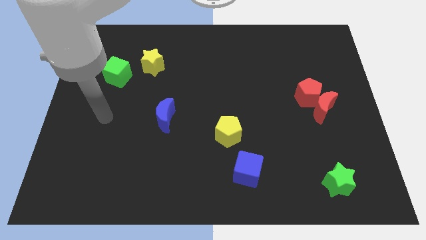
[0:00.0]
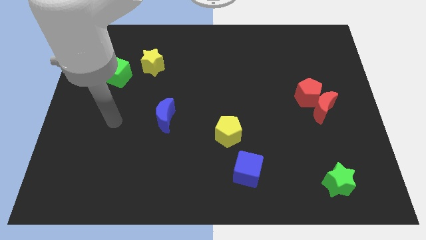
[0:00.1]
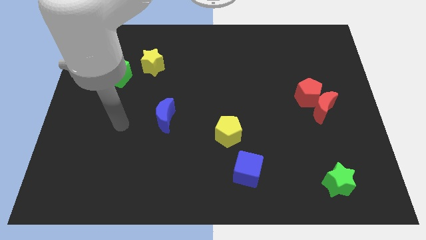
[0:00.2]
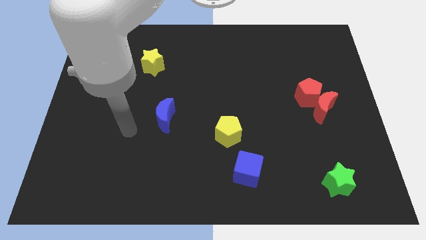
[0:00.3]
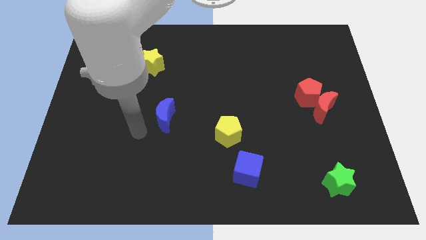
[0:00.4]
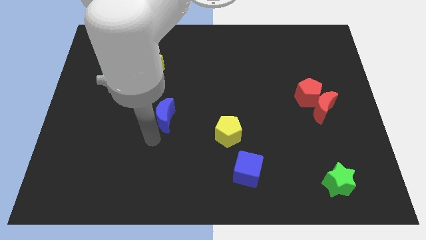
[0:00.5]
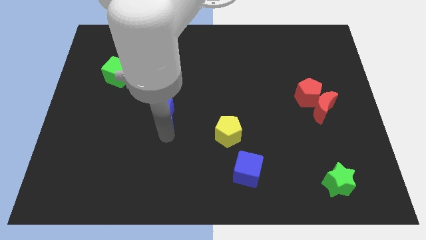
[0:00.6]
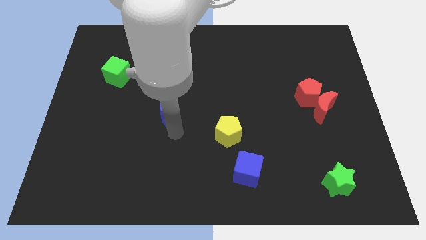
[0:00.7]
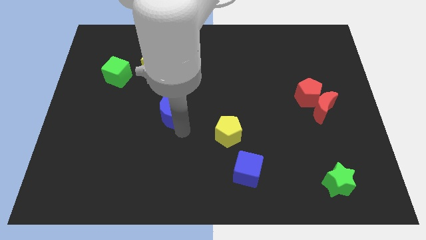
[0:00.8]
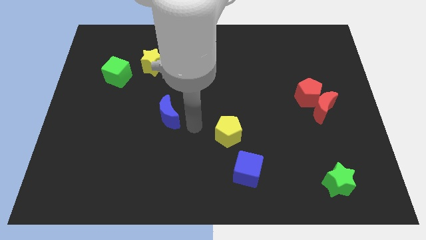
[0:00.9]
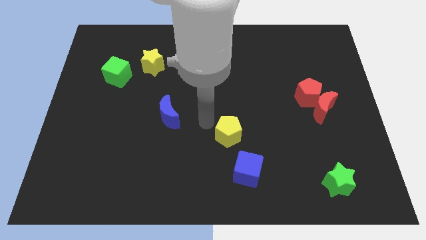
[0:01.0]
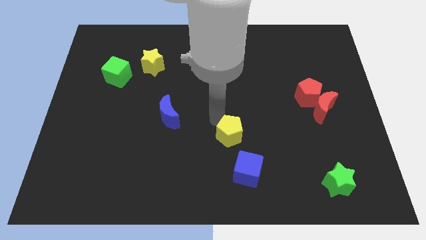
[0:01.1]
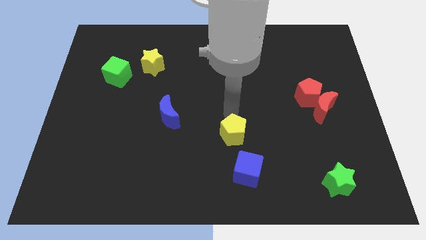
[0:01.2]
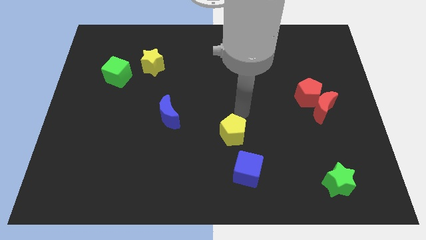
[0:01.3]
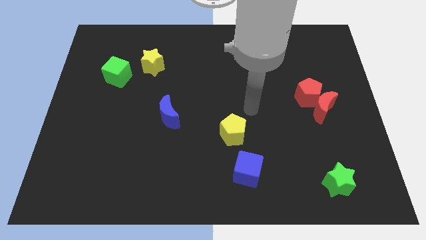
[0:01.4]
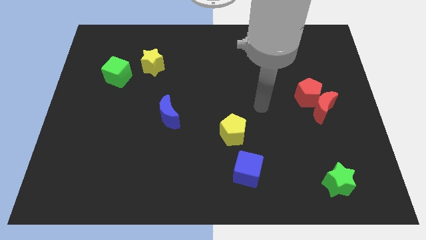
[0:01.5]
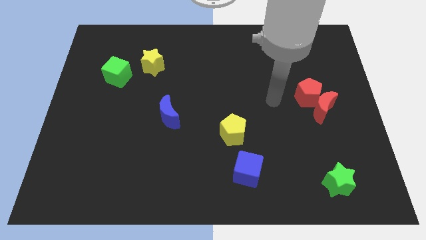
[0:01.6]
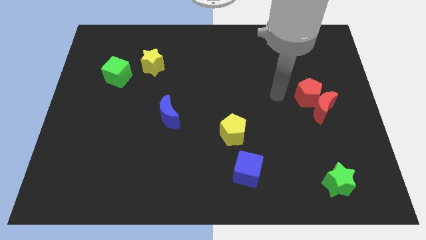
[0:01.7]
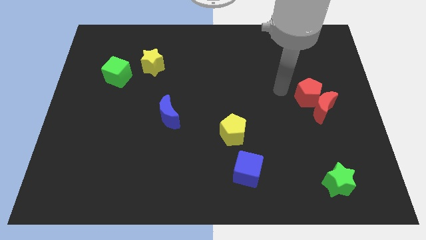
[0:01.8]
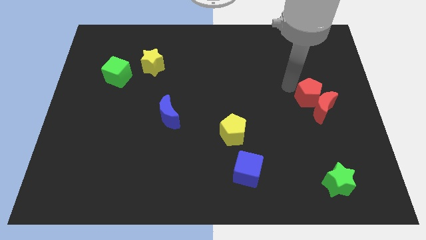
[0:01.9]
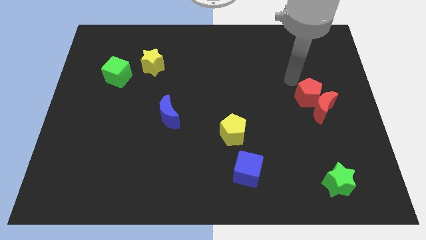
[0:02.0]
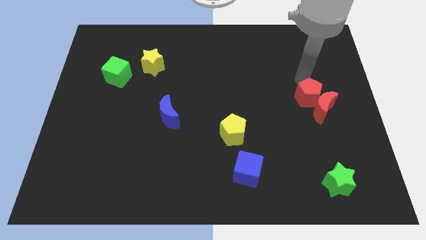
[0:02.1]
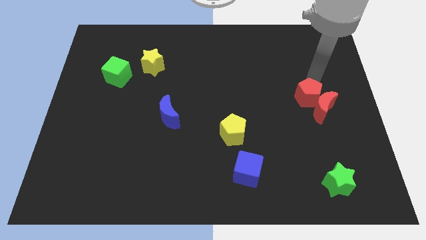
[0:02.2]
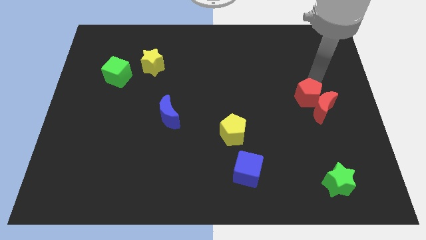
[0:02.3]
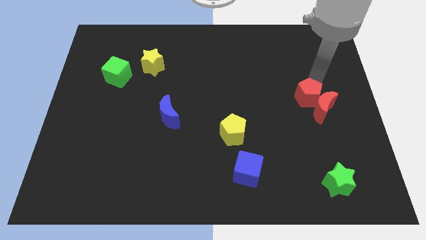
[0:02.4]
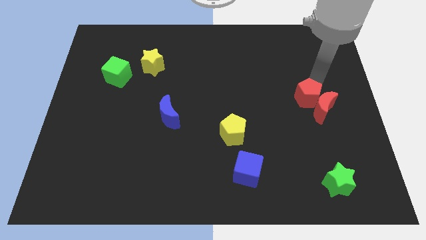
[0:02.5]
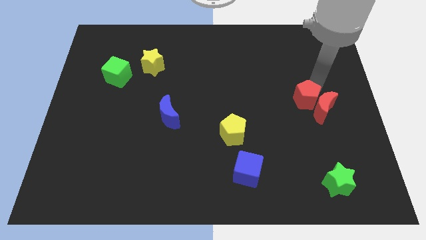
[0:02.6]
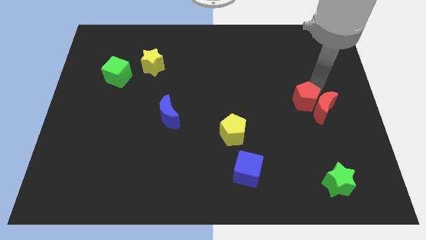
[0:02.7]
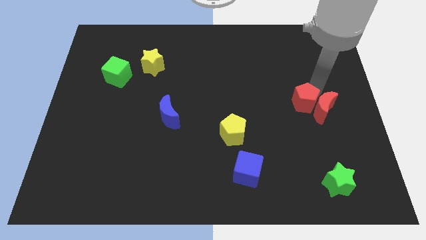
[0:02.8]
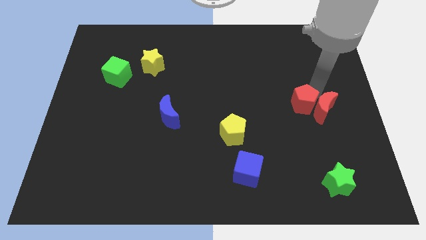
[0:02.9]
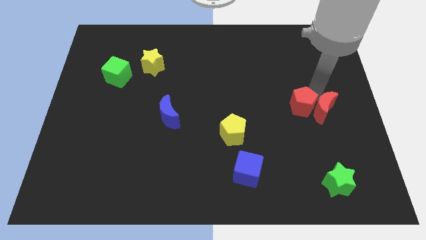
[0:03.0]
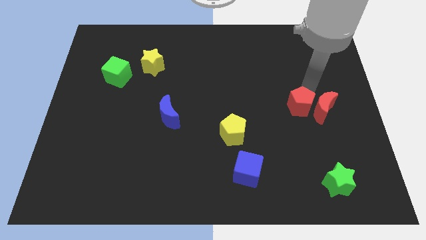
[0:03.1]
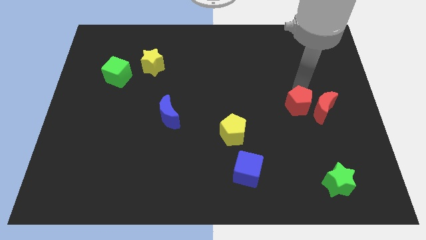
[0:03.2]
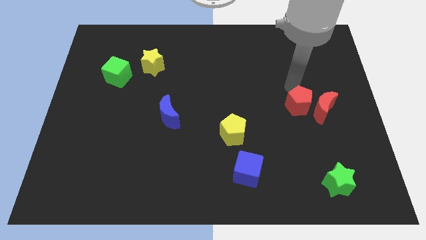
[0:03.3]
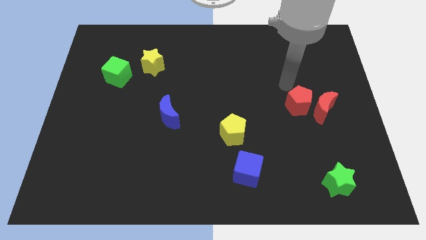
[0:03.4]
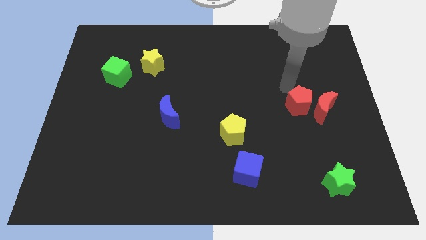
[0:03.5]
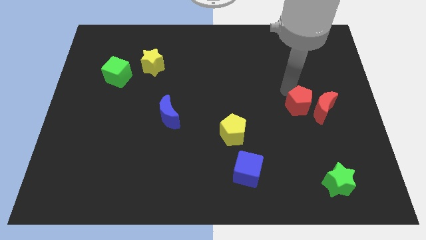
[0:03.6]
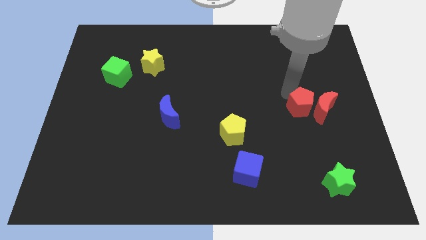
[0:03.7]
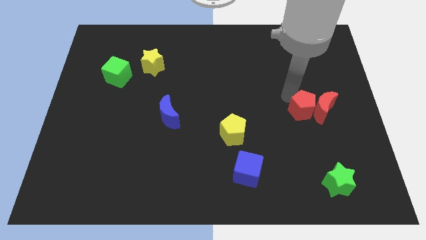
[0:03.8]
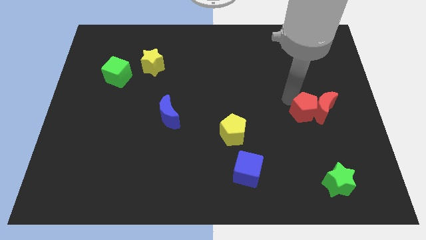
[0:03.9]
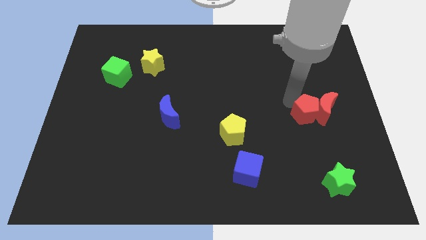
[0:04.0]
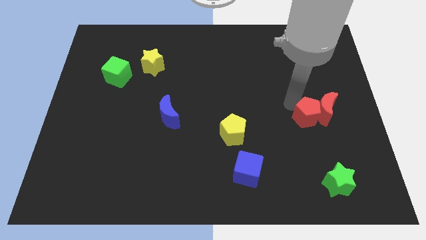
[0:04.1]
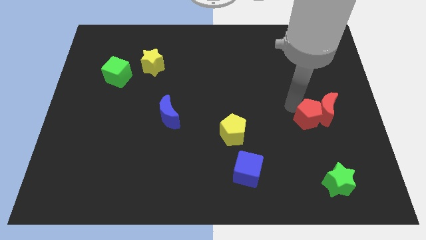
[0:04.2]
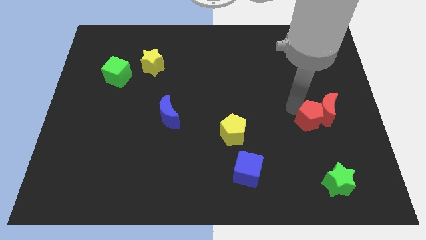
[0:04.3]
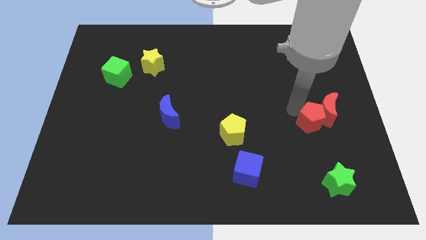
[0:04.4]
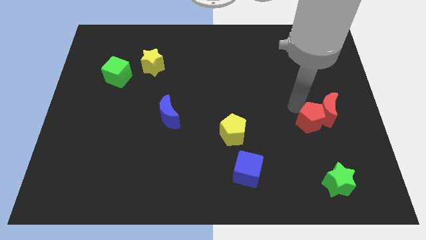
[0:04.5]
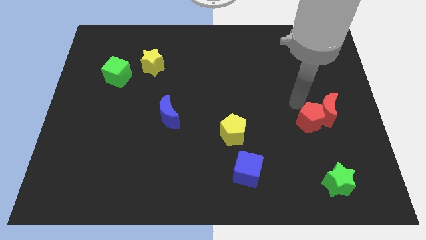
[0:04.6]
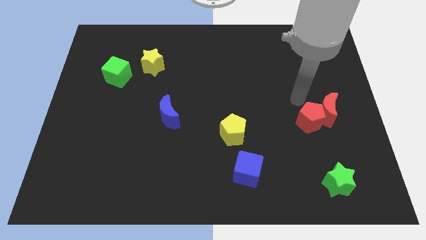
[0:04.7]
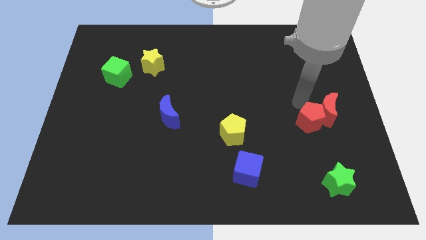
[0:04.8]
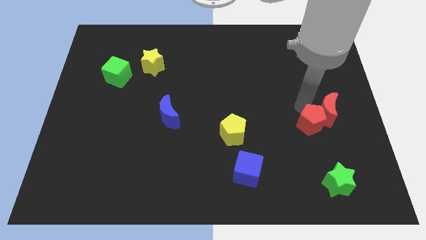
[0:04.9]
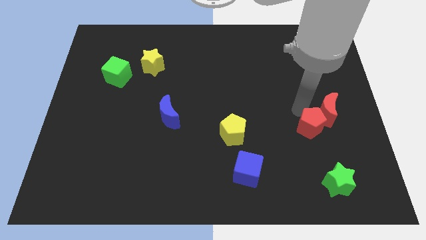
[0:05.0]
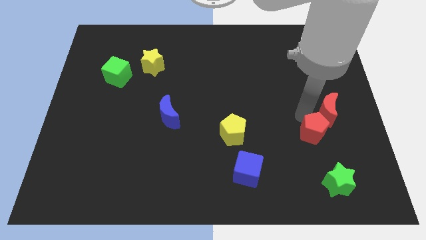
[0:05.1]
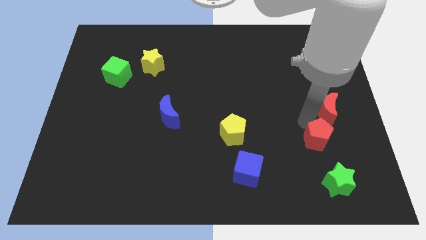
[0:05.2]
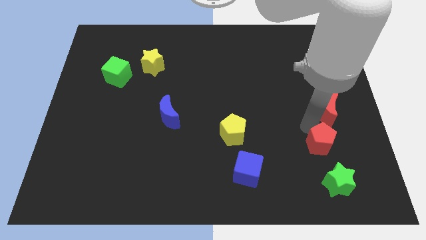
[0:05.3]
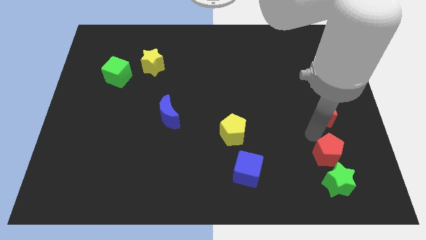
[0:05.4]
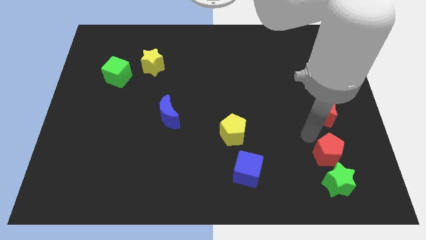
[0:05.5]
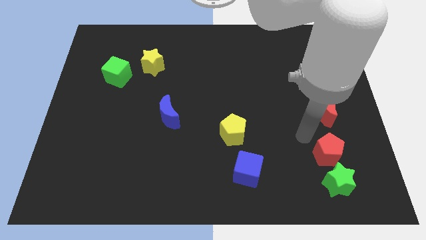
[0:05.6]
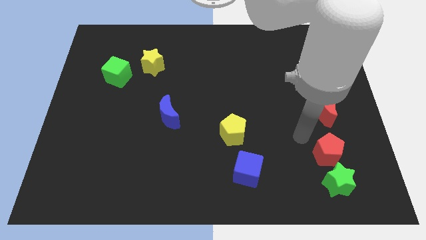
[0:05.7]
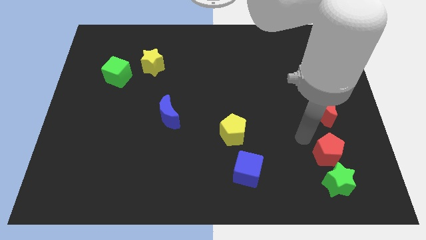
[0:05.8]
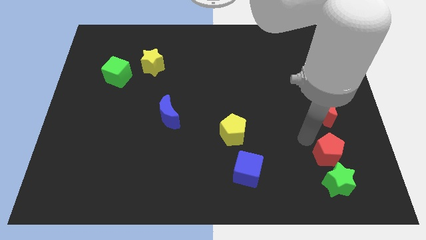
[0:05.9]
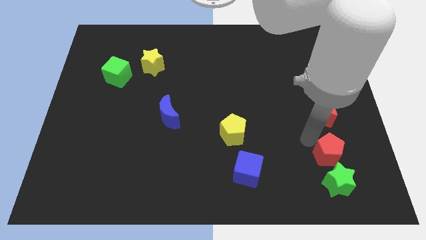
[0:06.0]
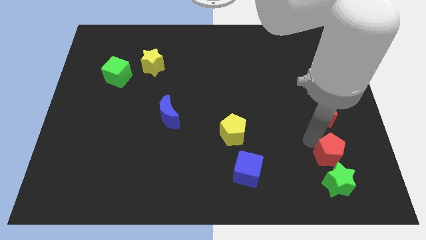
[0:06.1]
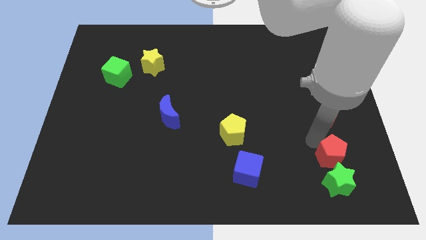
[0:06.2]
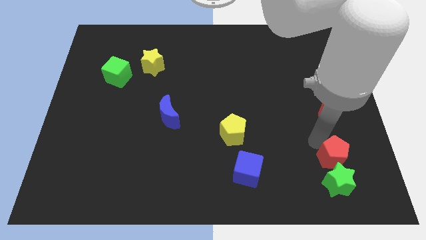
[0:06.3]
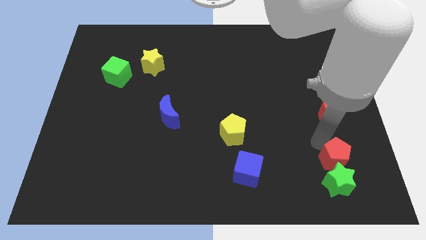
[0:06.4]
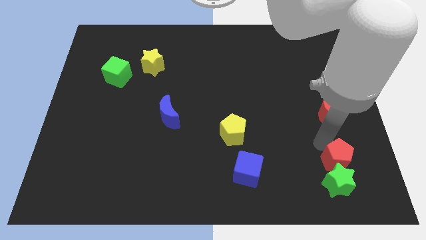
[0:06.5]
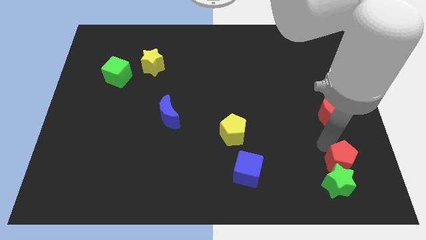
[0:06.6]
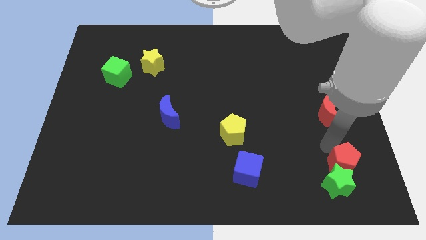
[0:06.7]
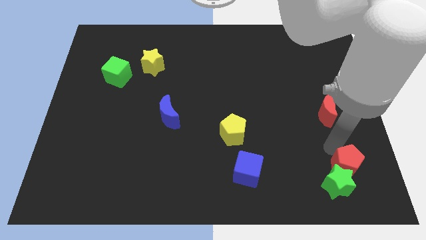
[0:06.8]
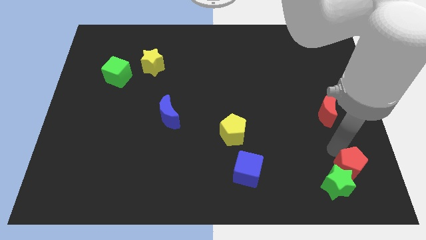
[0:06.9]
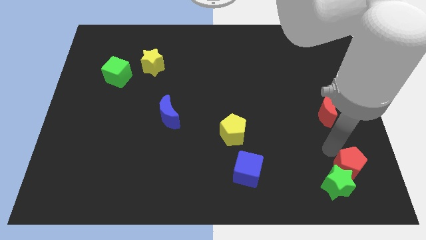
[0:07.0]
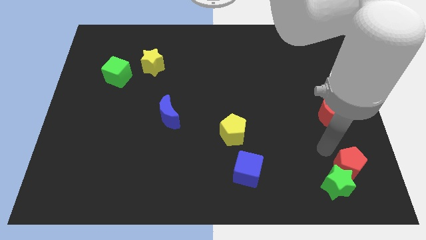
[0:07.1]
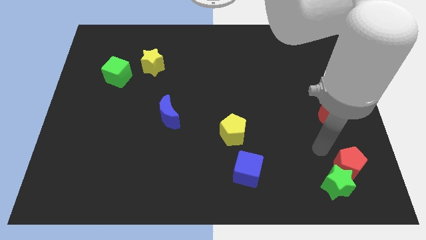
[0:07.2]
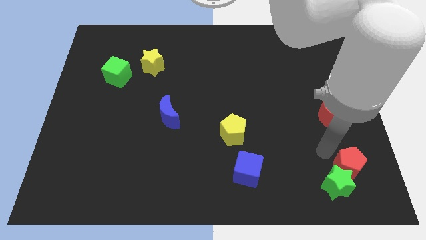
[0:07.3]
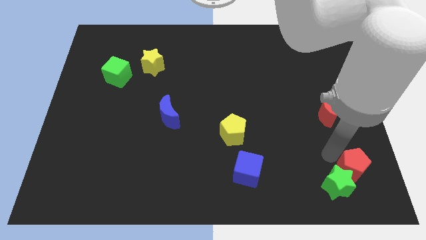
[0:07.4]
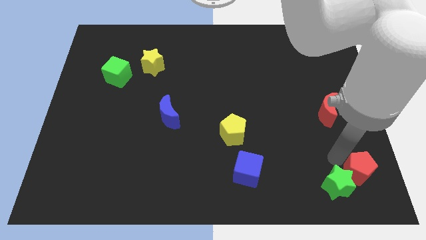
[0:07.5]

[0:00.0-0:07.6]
push the red pentagon to the lower right corner
